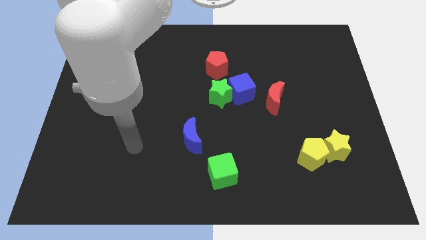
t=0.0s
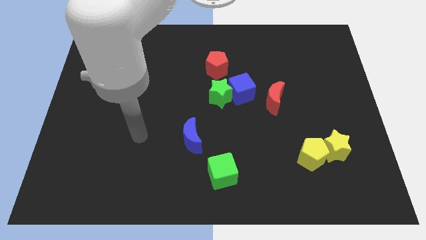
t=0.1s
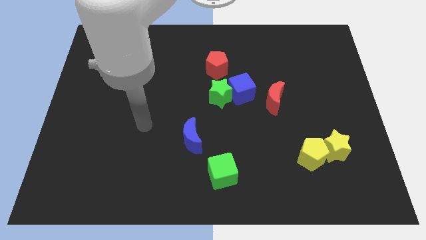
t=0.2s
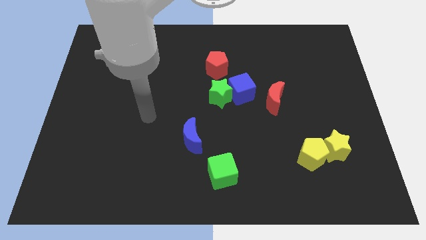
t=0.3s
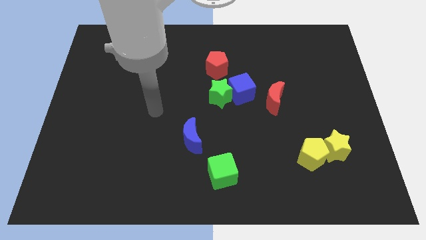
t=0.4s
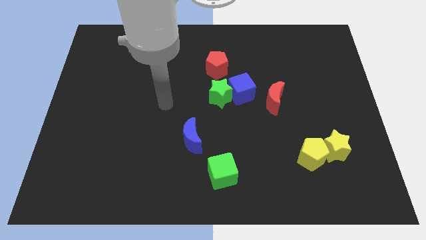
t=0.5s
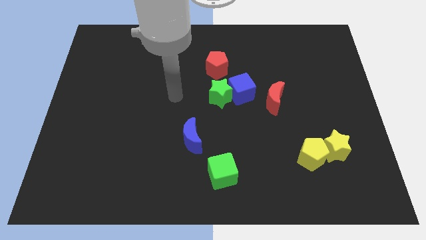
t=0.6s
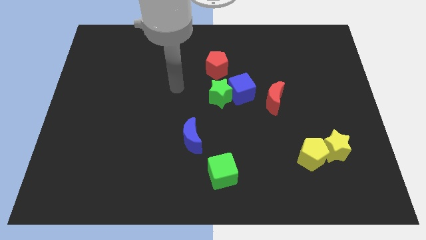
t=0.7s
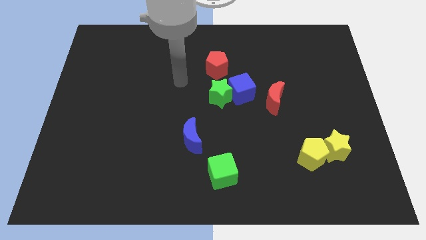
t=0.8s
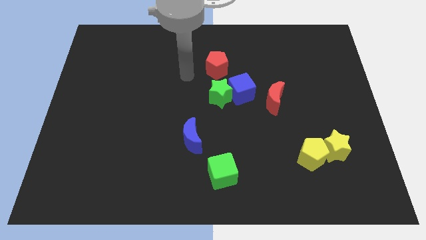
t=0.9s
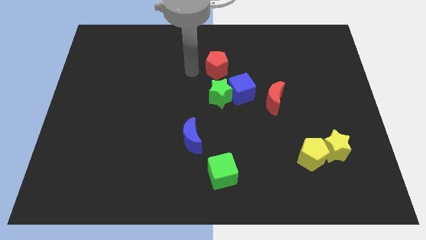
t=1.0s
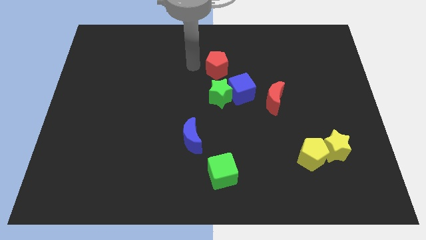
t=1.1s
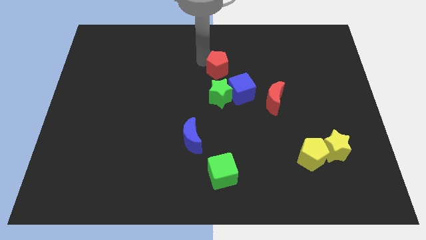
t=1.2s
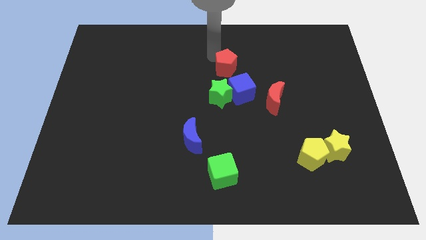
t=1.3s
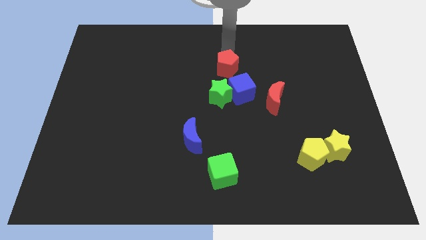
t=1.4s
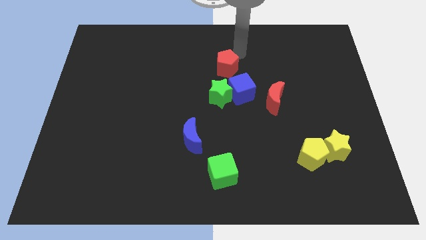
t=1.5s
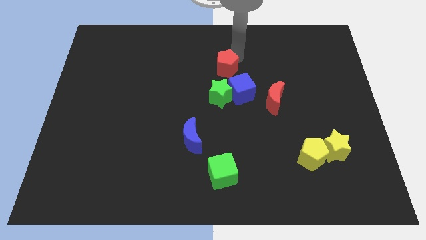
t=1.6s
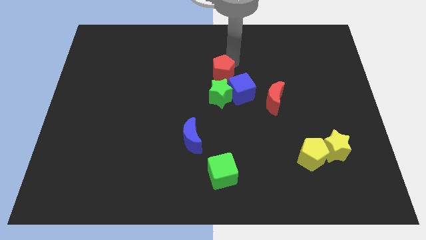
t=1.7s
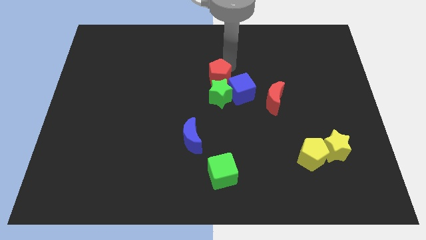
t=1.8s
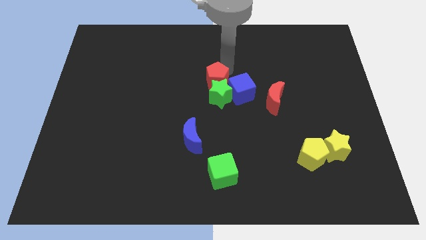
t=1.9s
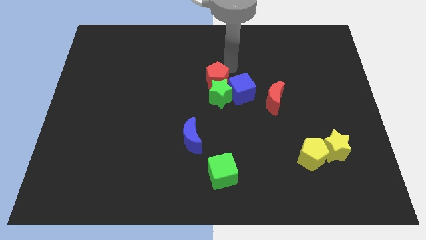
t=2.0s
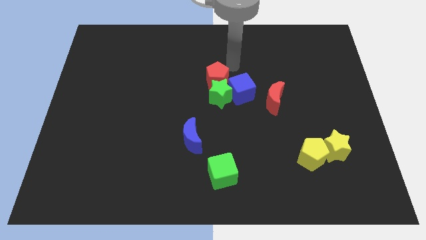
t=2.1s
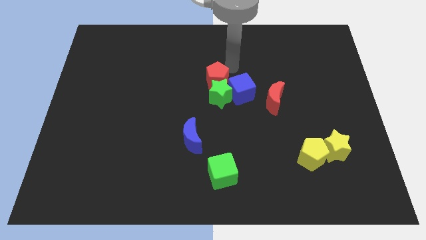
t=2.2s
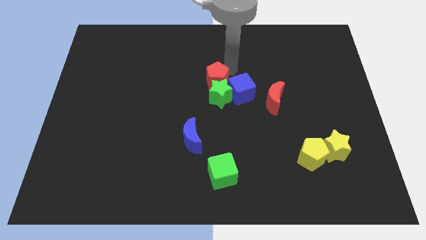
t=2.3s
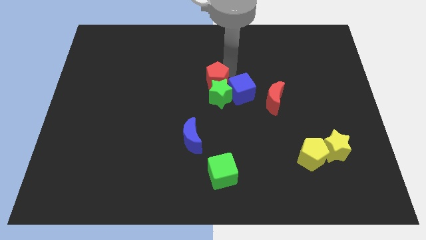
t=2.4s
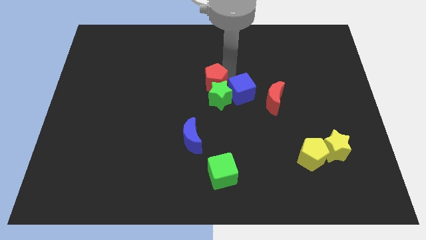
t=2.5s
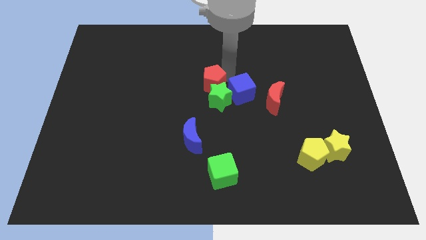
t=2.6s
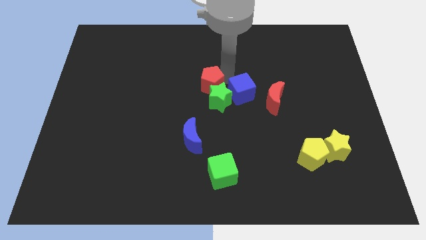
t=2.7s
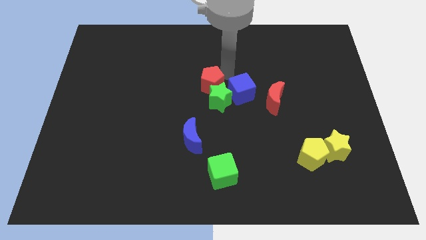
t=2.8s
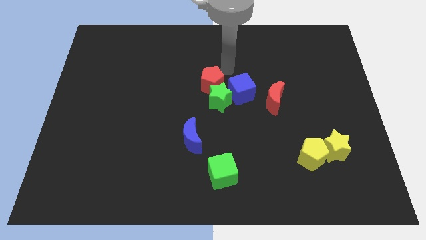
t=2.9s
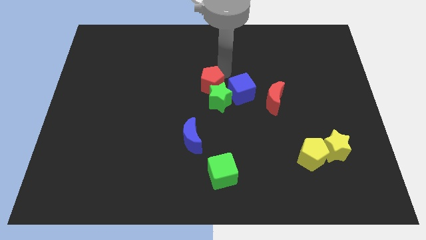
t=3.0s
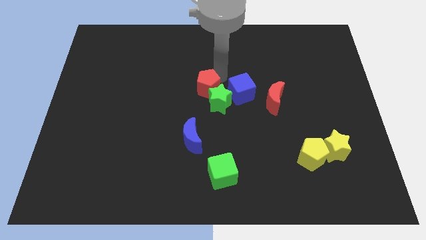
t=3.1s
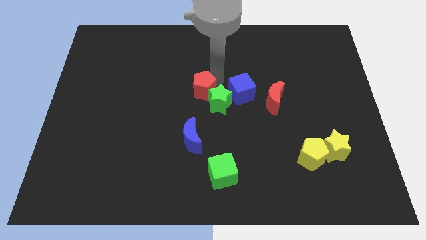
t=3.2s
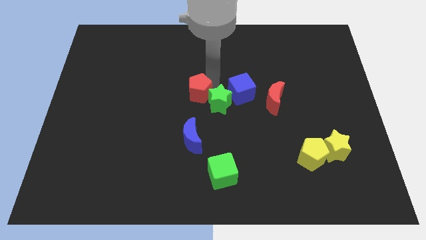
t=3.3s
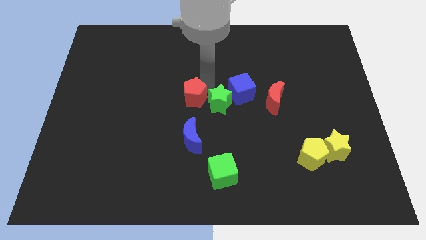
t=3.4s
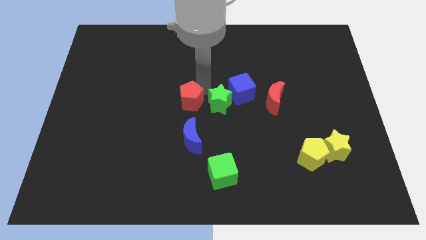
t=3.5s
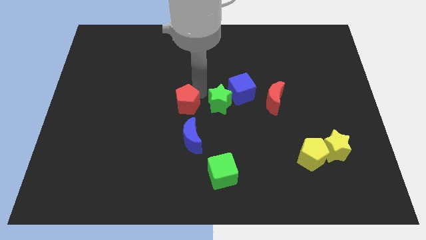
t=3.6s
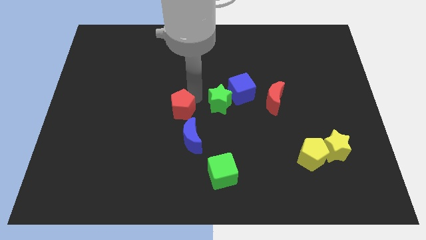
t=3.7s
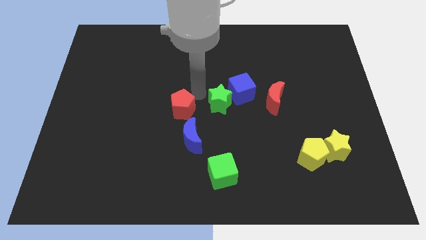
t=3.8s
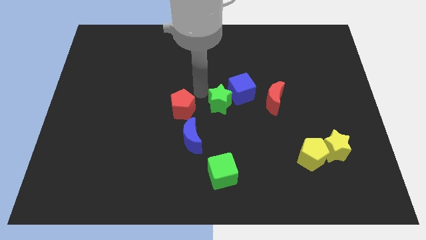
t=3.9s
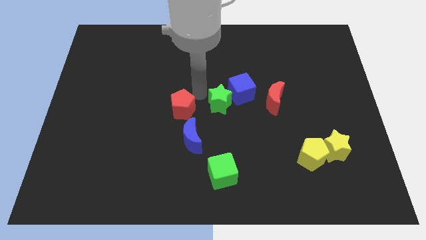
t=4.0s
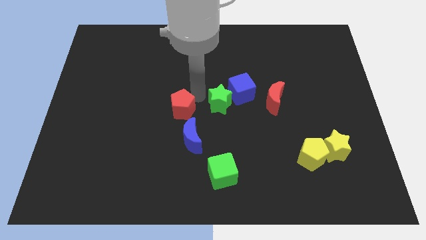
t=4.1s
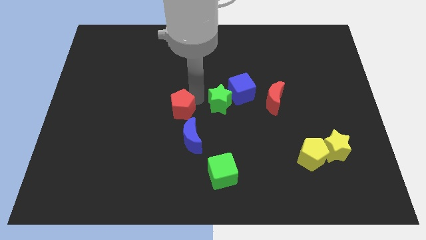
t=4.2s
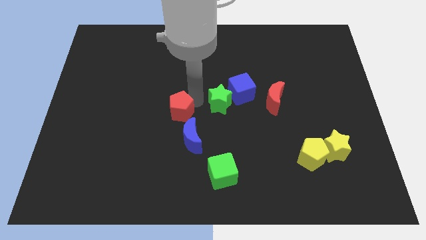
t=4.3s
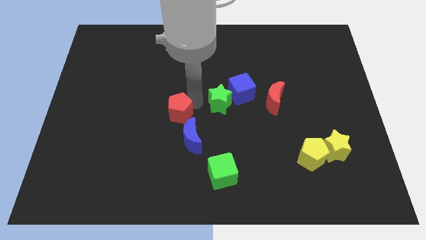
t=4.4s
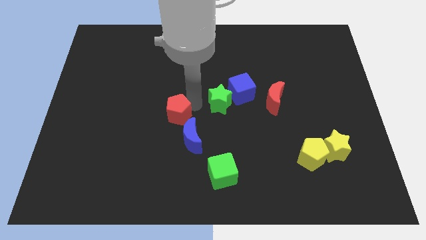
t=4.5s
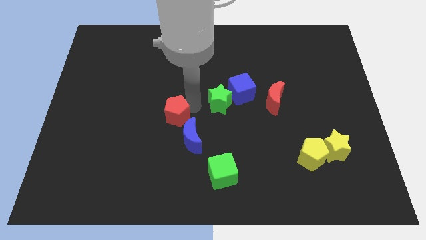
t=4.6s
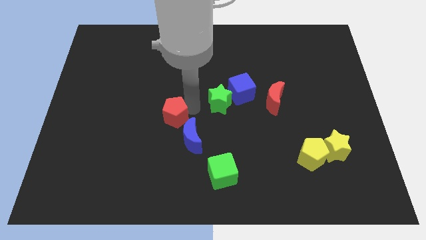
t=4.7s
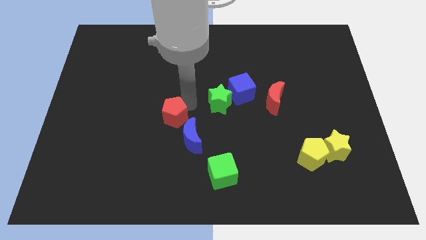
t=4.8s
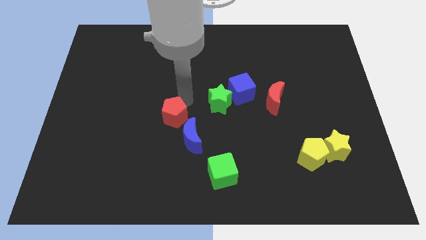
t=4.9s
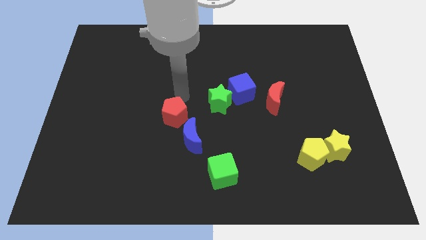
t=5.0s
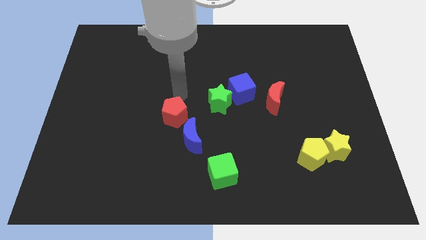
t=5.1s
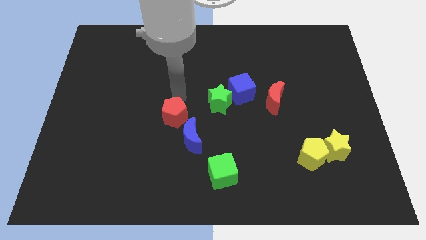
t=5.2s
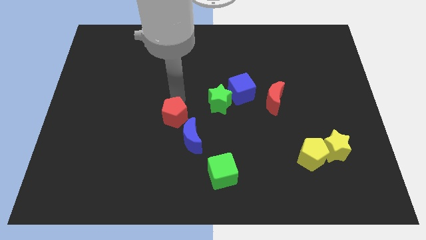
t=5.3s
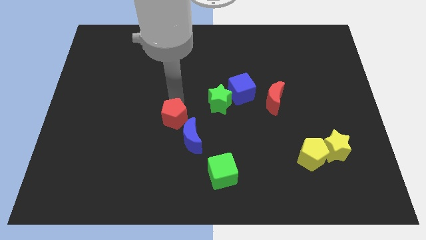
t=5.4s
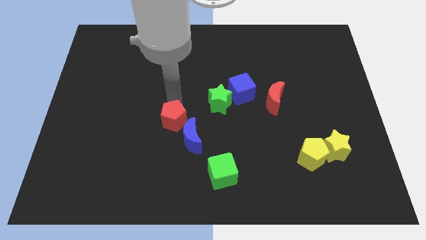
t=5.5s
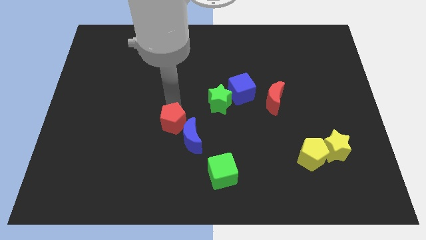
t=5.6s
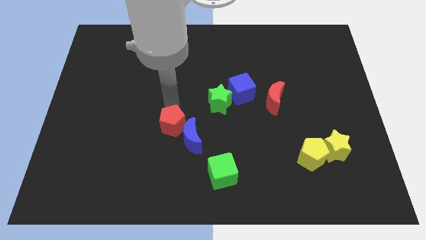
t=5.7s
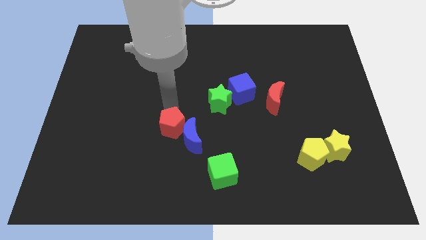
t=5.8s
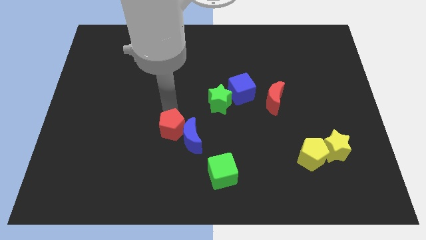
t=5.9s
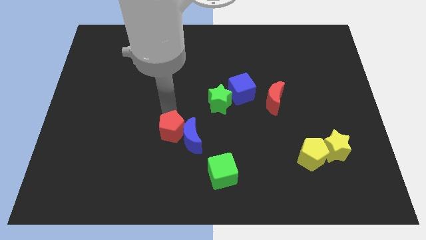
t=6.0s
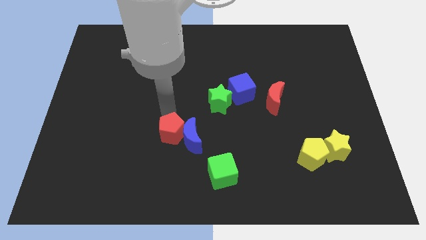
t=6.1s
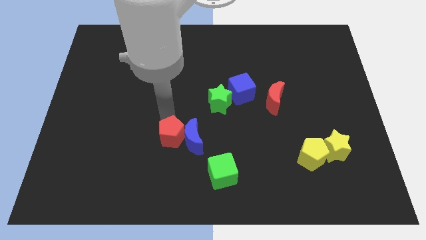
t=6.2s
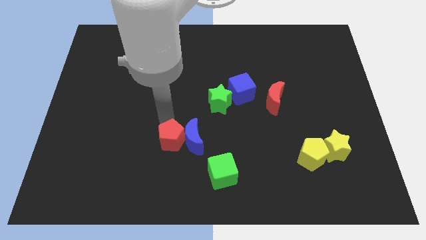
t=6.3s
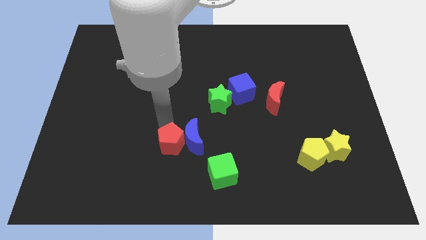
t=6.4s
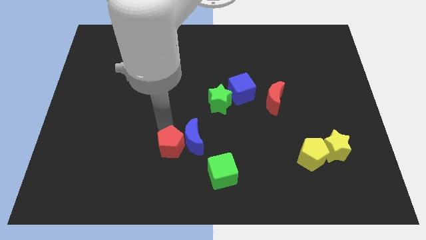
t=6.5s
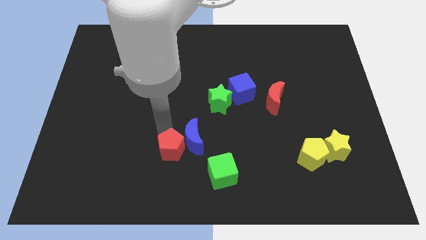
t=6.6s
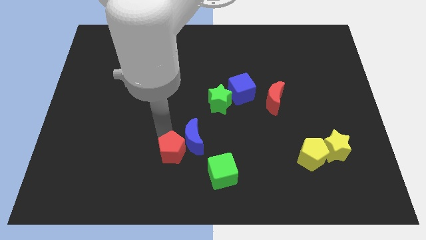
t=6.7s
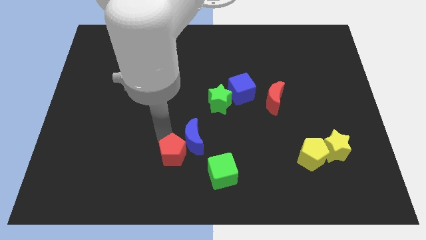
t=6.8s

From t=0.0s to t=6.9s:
move the red pentagon just left of the green cube

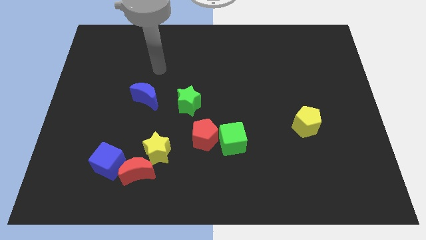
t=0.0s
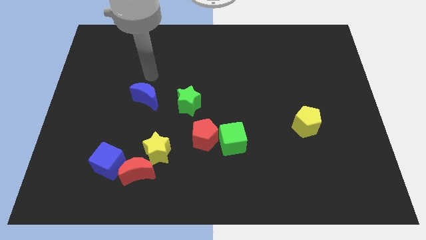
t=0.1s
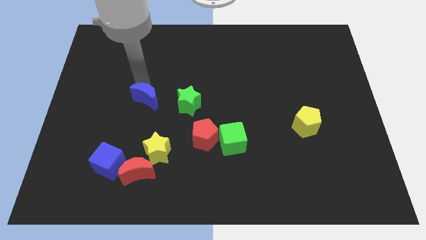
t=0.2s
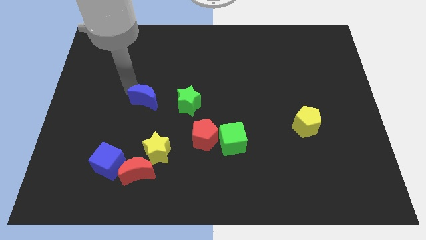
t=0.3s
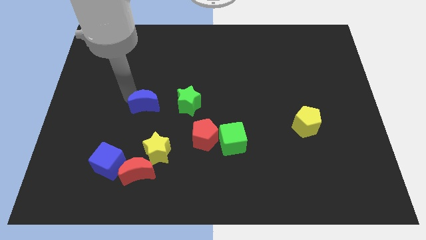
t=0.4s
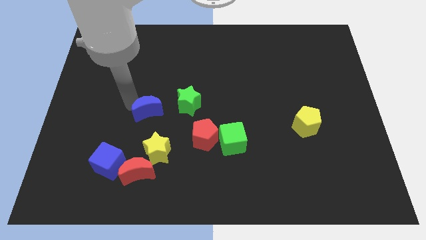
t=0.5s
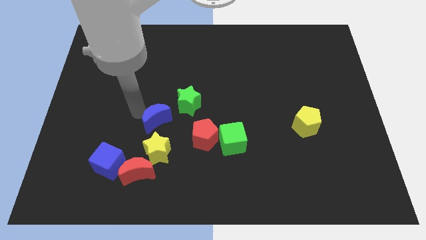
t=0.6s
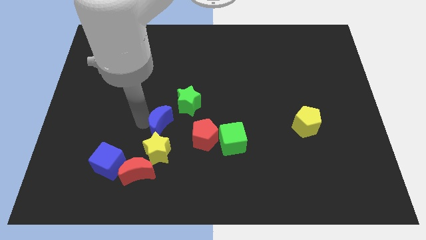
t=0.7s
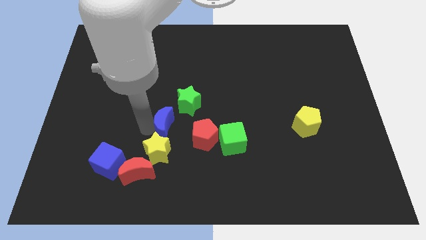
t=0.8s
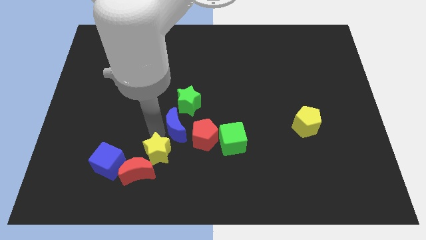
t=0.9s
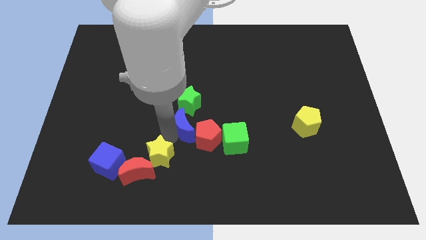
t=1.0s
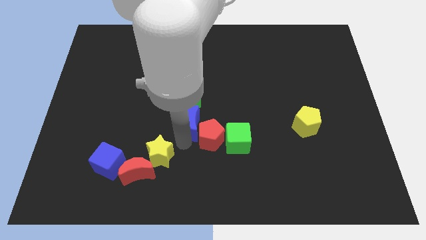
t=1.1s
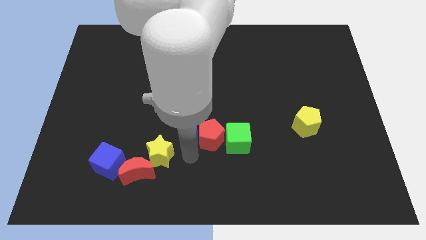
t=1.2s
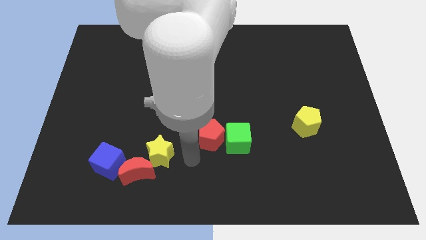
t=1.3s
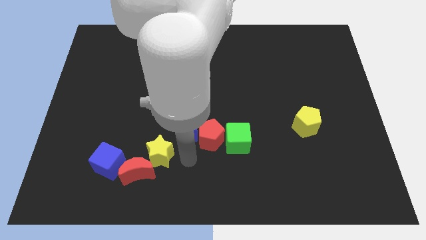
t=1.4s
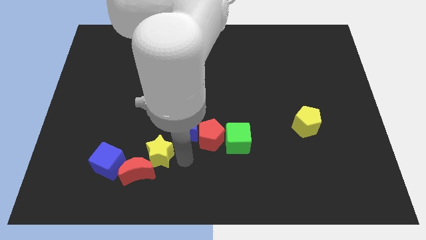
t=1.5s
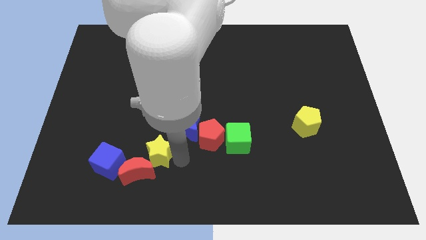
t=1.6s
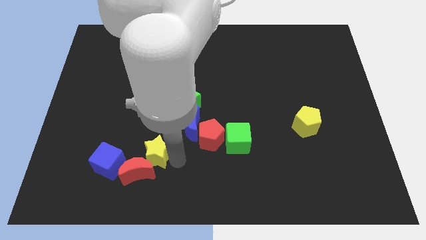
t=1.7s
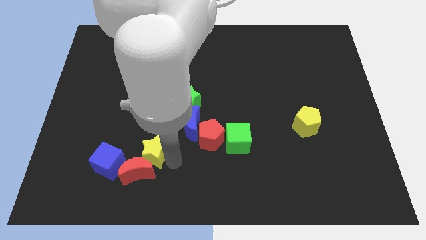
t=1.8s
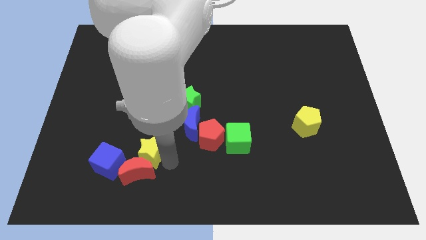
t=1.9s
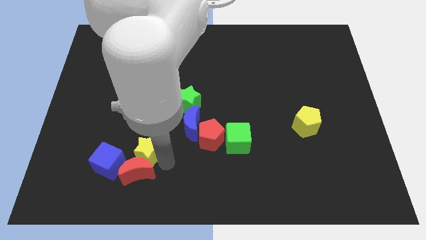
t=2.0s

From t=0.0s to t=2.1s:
slide the yellow star to the top left of the red moon

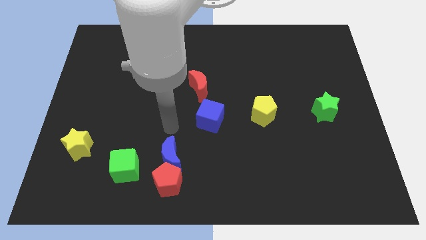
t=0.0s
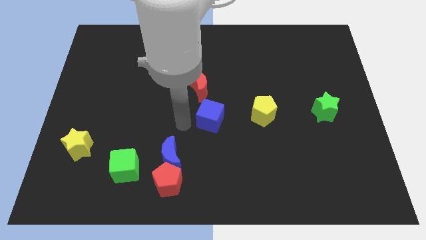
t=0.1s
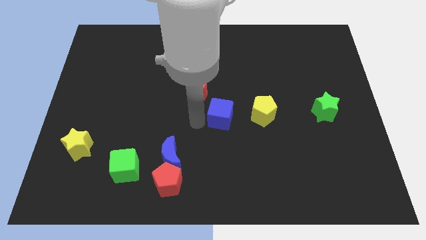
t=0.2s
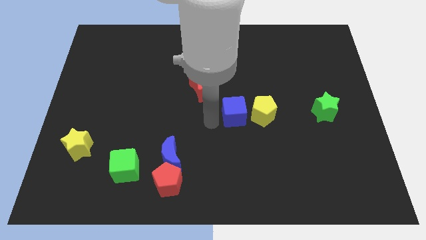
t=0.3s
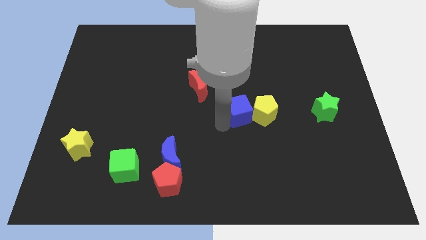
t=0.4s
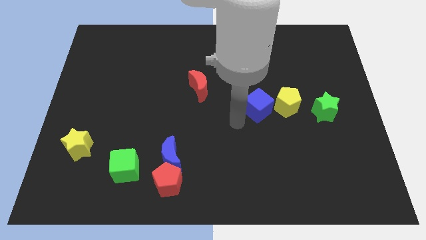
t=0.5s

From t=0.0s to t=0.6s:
put the yellow pentagon to the top left of the green star
